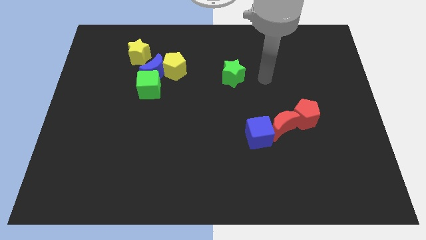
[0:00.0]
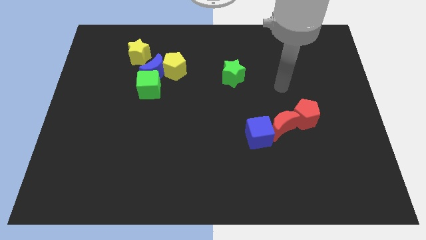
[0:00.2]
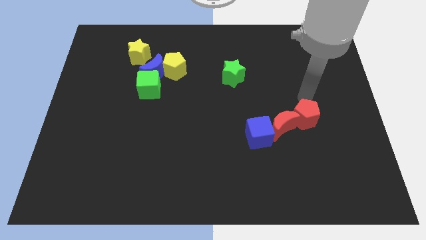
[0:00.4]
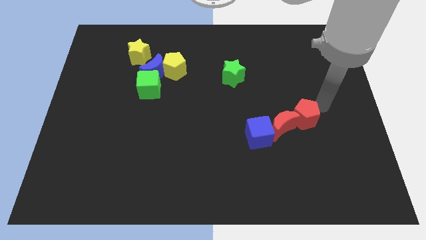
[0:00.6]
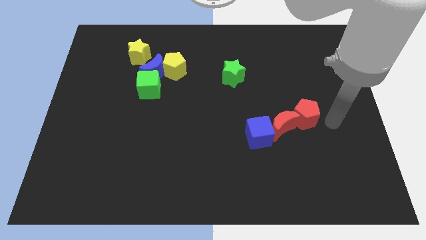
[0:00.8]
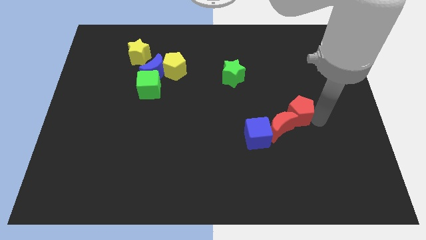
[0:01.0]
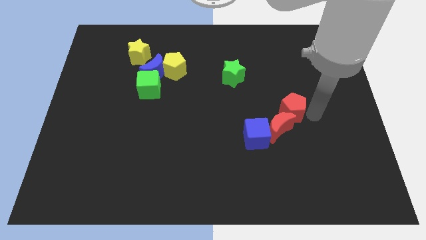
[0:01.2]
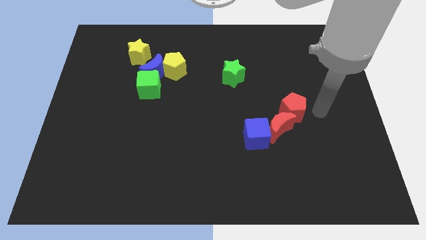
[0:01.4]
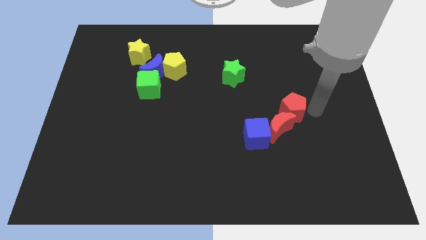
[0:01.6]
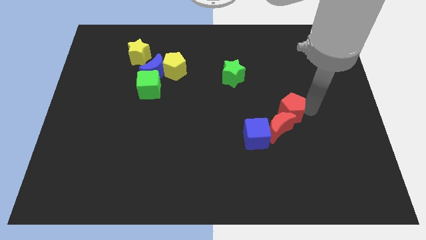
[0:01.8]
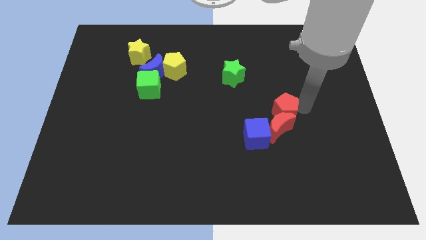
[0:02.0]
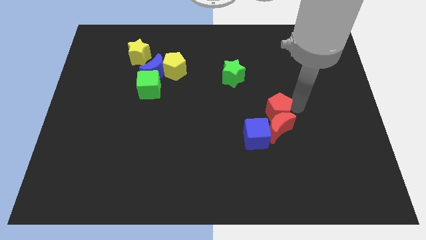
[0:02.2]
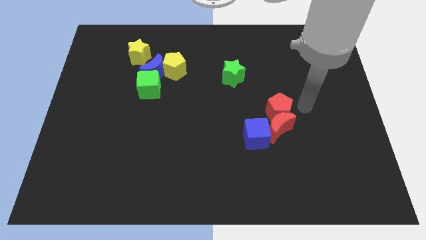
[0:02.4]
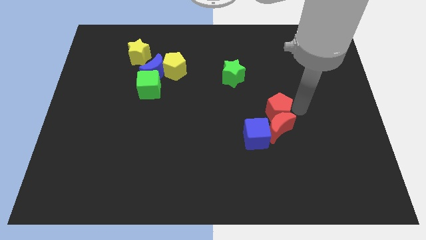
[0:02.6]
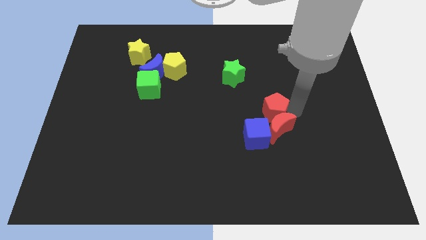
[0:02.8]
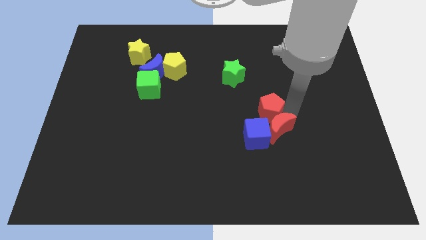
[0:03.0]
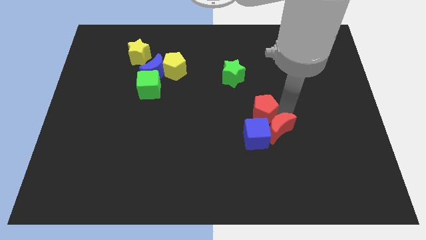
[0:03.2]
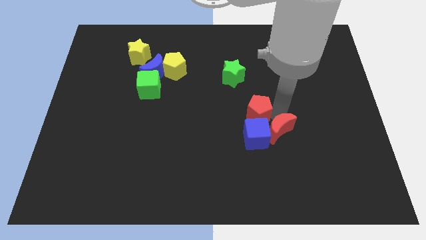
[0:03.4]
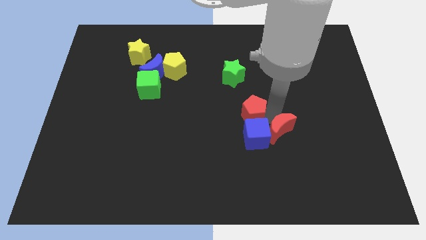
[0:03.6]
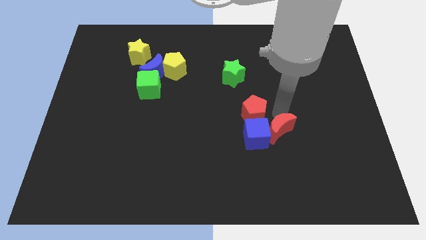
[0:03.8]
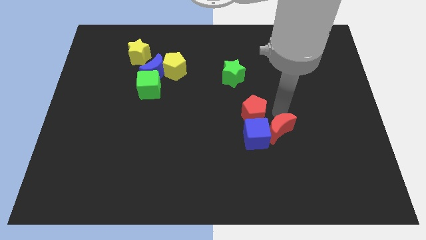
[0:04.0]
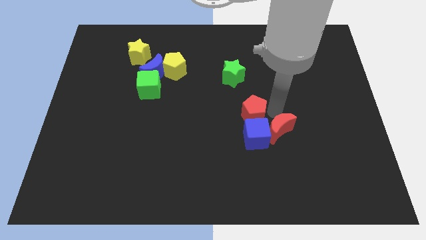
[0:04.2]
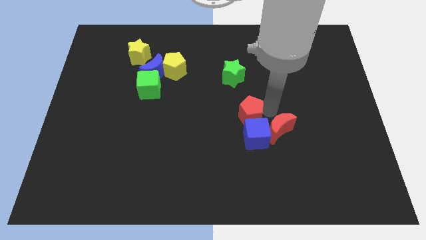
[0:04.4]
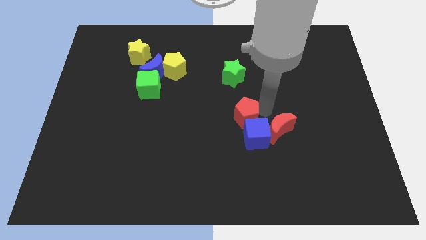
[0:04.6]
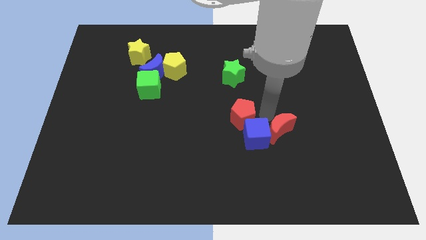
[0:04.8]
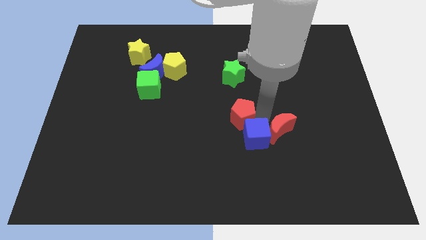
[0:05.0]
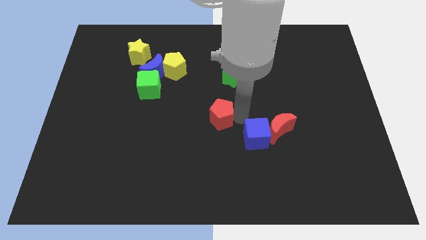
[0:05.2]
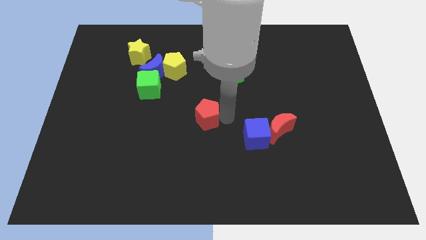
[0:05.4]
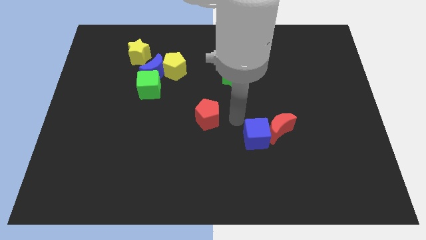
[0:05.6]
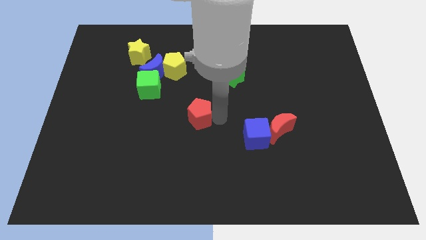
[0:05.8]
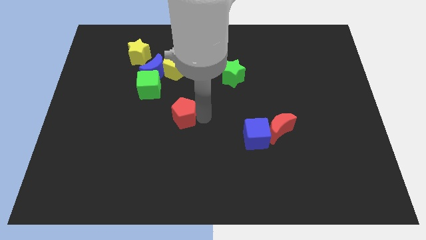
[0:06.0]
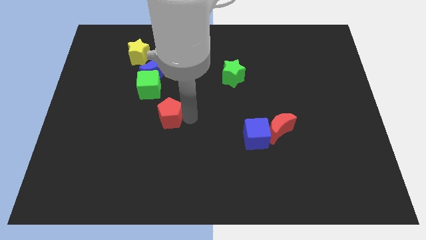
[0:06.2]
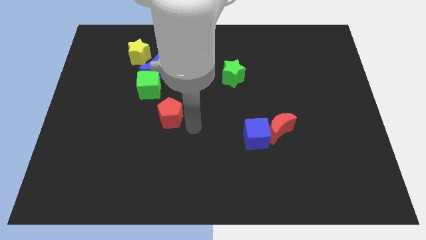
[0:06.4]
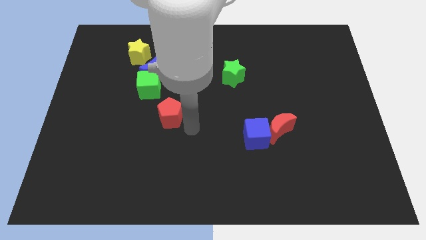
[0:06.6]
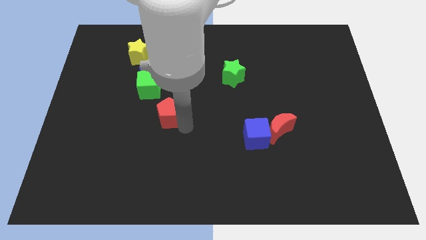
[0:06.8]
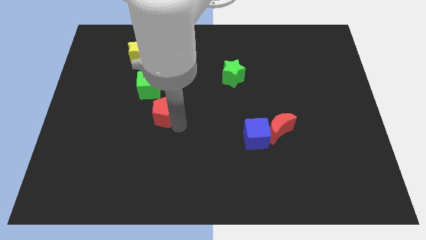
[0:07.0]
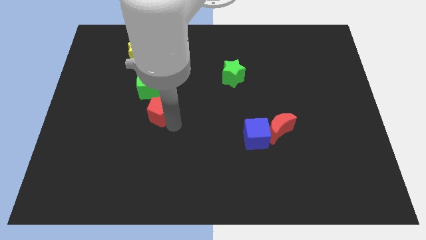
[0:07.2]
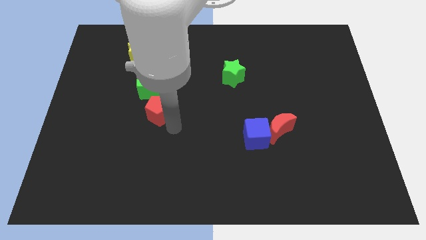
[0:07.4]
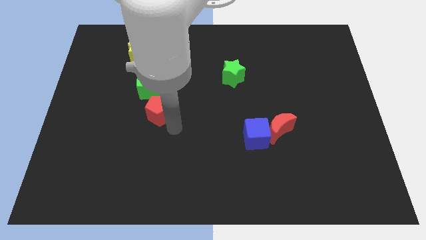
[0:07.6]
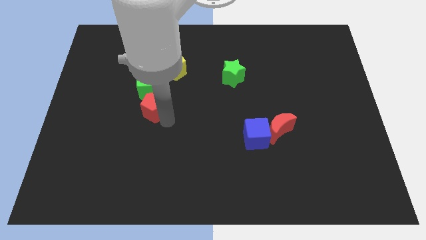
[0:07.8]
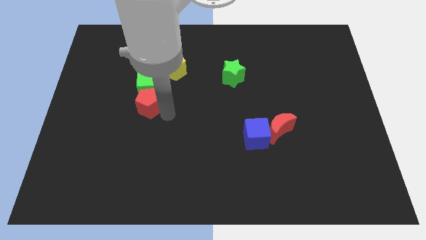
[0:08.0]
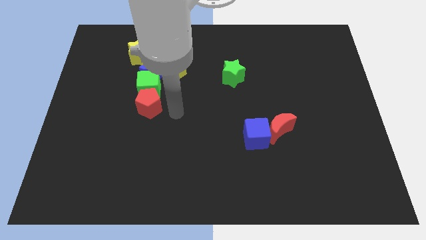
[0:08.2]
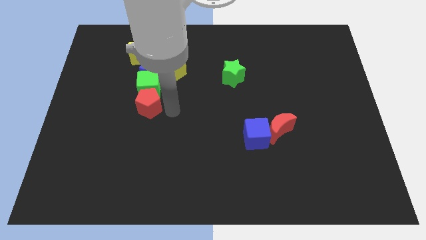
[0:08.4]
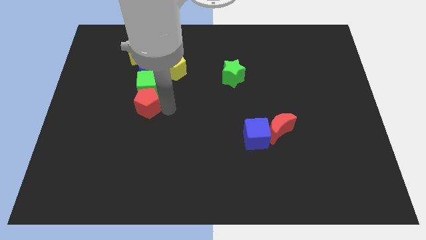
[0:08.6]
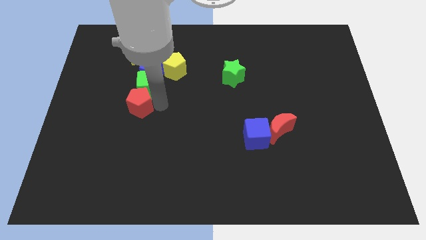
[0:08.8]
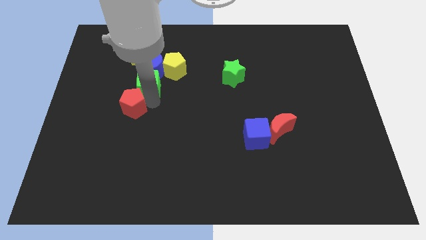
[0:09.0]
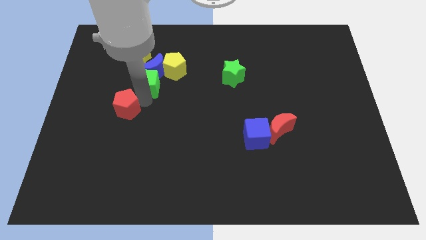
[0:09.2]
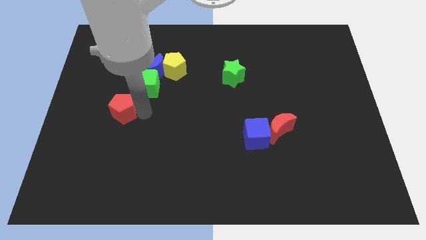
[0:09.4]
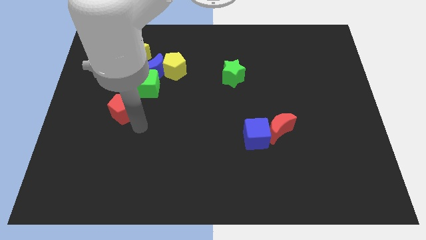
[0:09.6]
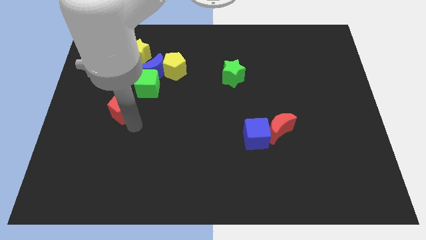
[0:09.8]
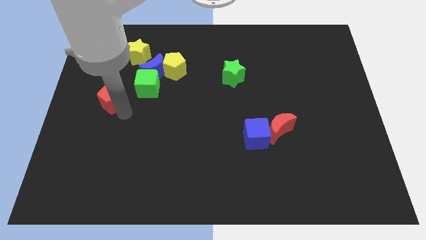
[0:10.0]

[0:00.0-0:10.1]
put the red pentagon to the left side of the green cube

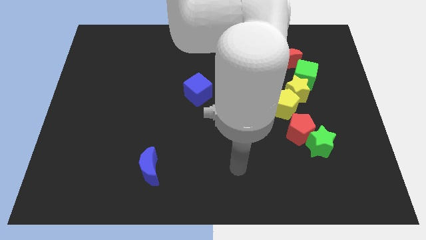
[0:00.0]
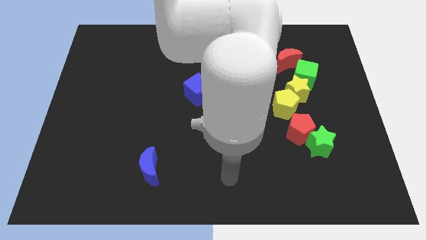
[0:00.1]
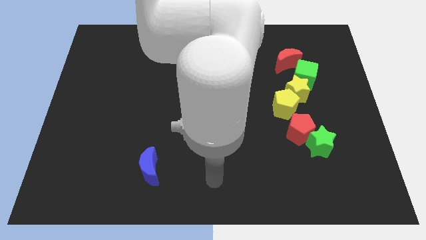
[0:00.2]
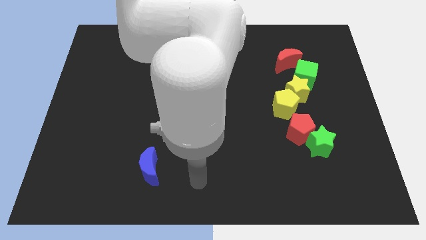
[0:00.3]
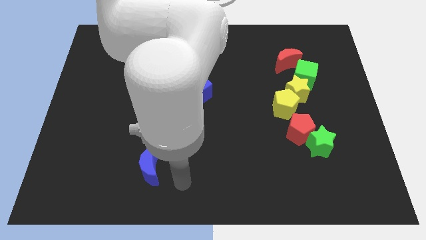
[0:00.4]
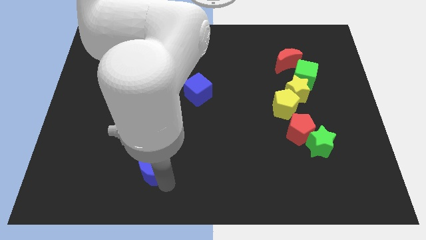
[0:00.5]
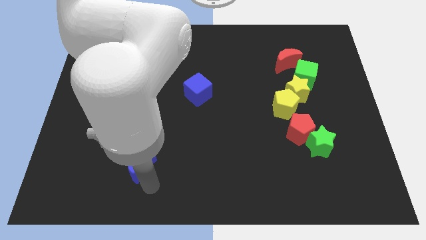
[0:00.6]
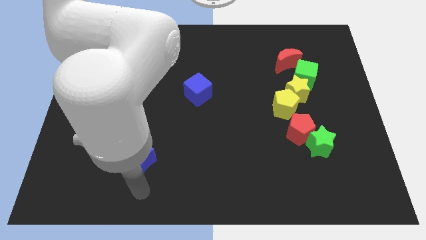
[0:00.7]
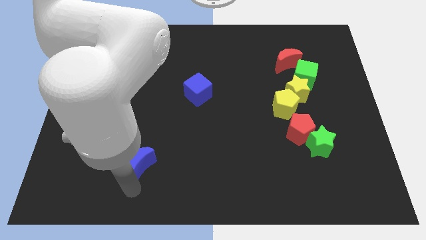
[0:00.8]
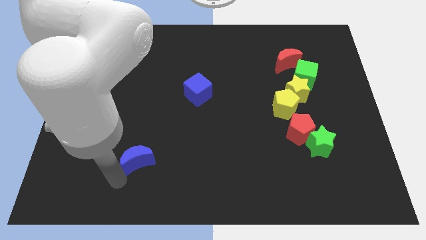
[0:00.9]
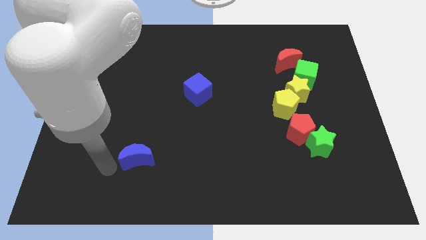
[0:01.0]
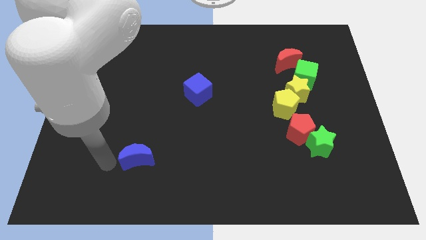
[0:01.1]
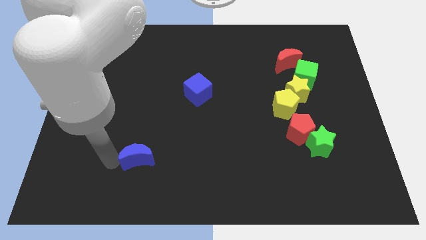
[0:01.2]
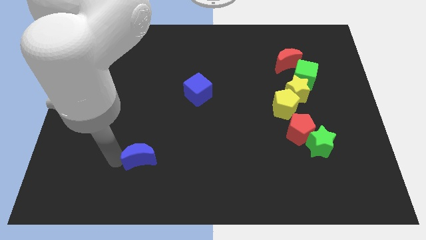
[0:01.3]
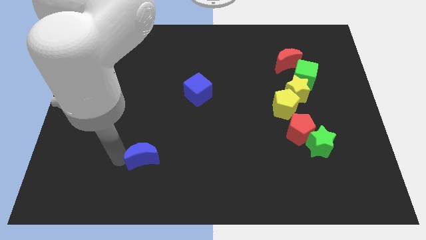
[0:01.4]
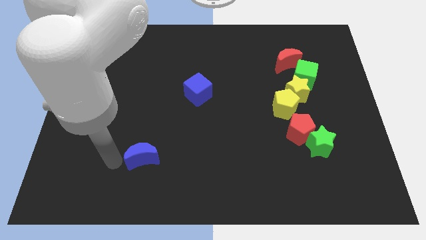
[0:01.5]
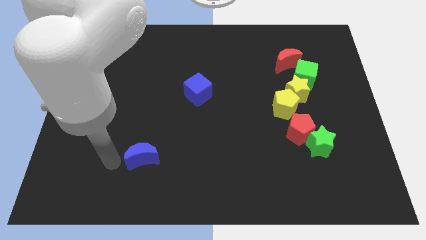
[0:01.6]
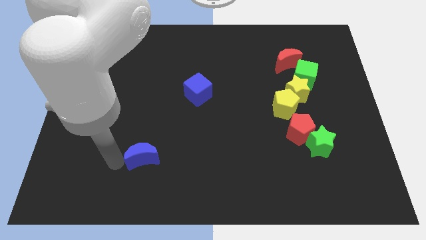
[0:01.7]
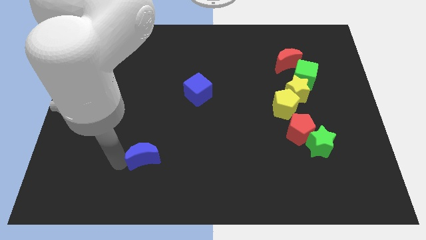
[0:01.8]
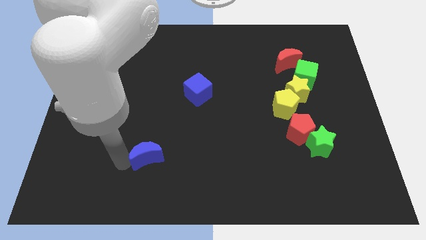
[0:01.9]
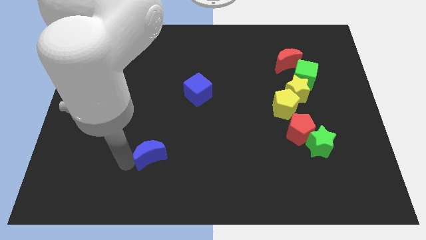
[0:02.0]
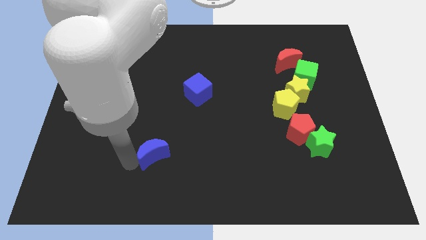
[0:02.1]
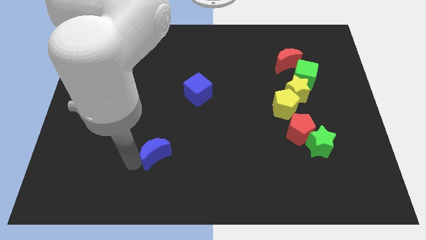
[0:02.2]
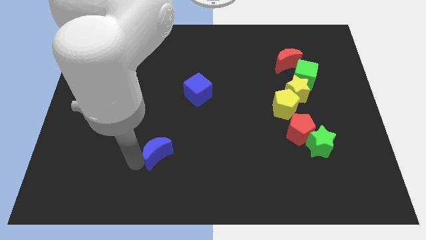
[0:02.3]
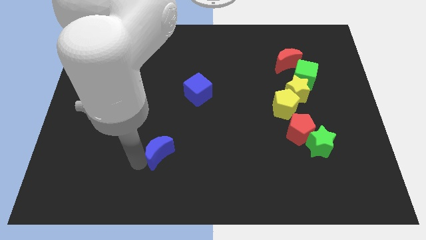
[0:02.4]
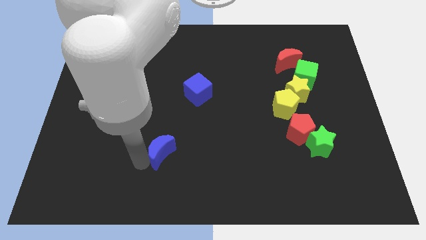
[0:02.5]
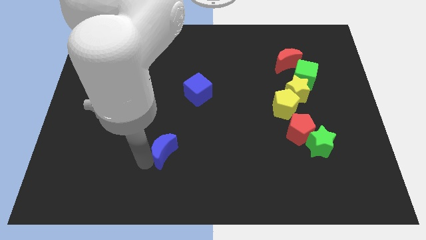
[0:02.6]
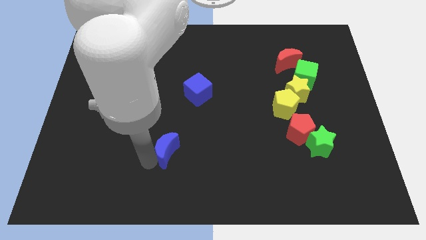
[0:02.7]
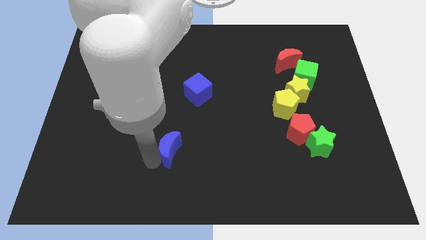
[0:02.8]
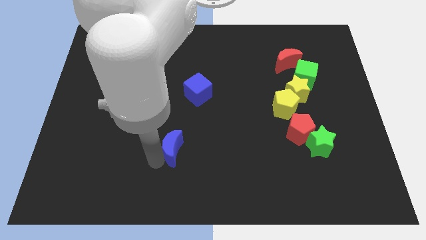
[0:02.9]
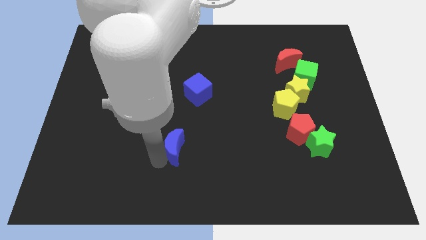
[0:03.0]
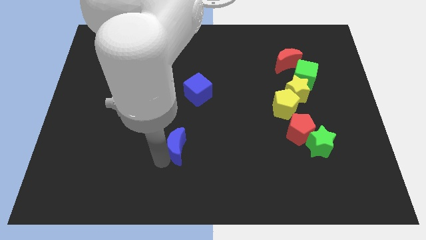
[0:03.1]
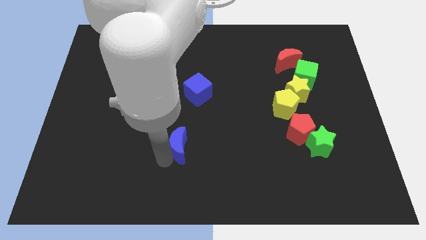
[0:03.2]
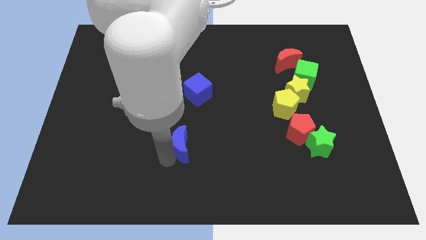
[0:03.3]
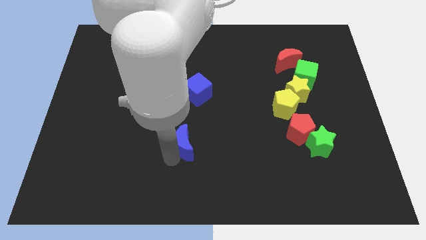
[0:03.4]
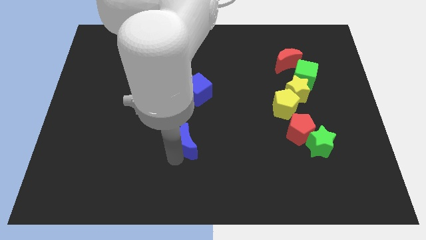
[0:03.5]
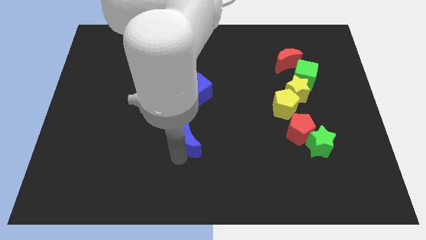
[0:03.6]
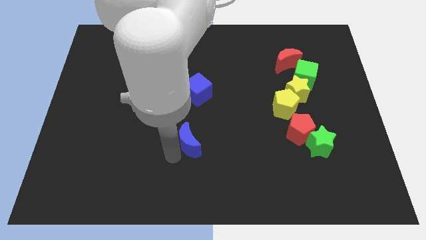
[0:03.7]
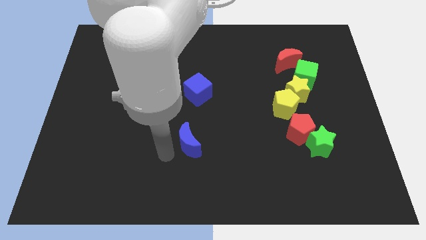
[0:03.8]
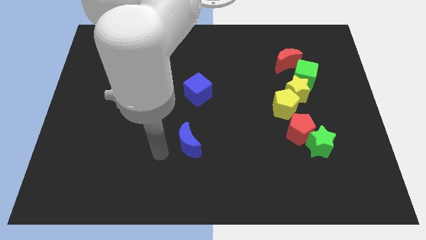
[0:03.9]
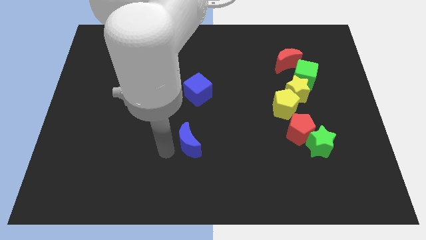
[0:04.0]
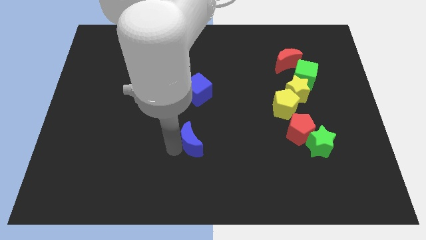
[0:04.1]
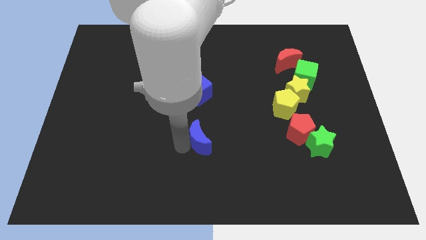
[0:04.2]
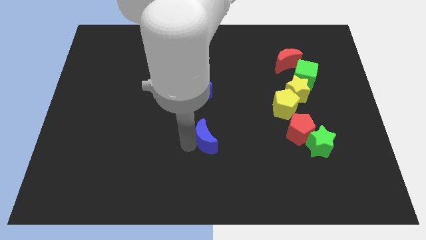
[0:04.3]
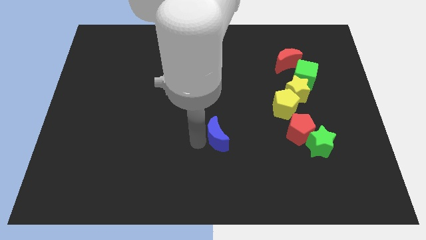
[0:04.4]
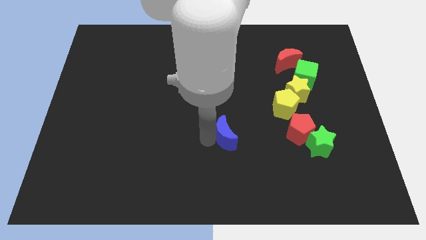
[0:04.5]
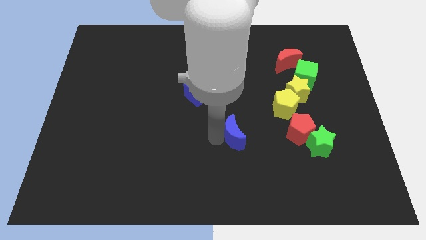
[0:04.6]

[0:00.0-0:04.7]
slide the blue moon left of the red pentagon
